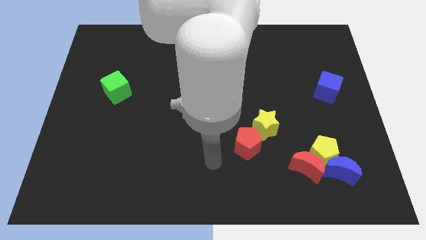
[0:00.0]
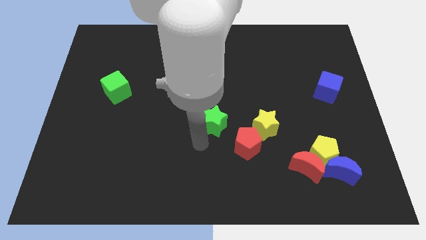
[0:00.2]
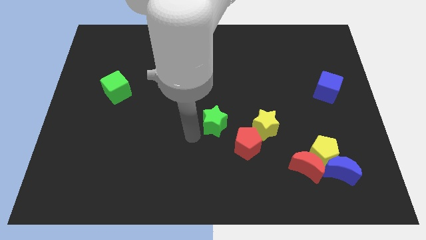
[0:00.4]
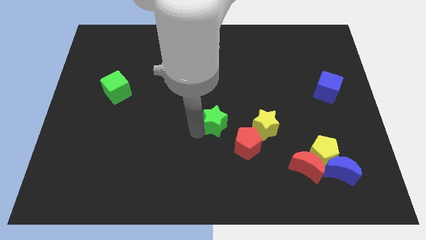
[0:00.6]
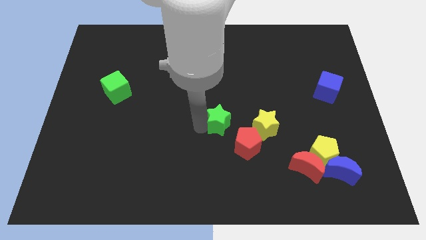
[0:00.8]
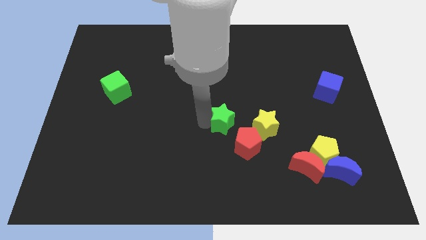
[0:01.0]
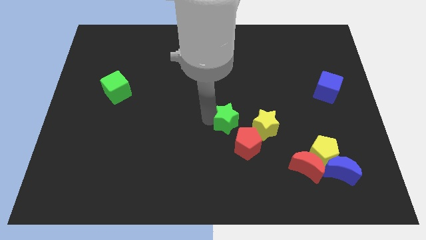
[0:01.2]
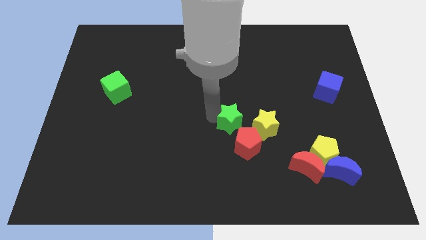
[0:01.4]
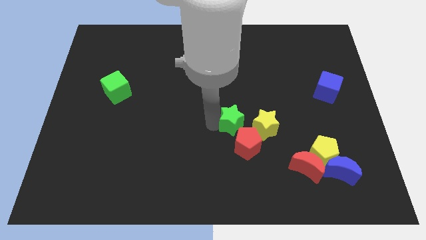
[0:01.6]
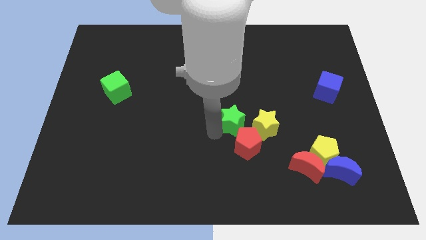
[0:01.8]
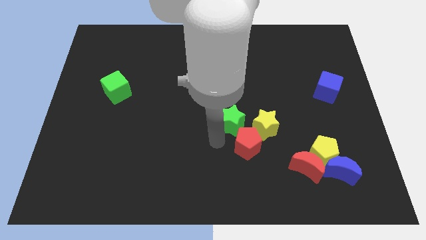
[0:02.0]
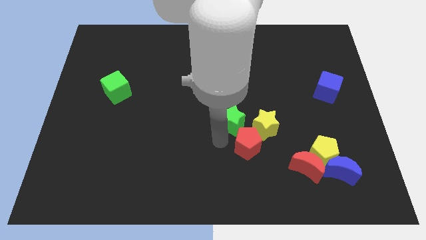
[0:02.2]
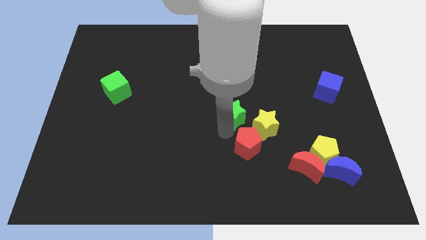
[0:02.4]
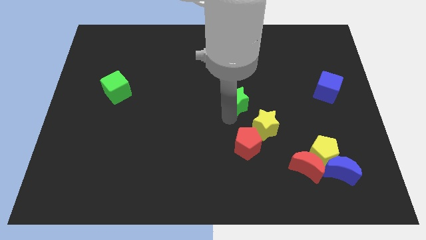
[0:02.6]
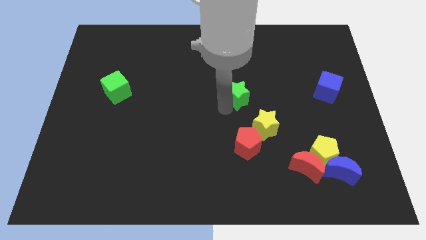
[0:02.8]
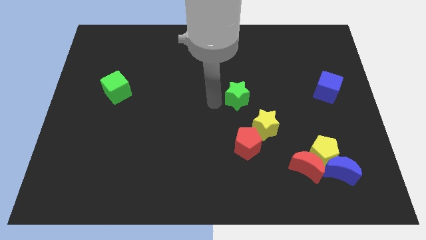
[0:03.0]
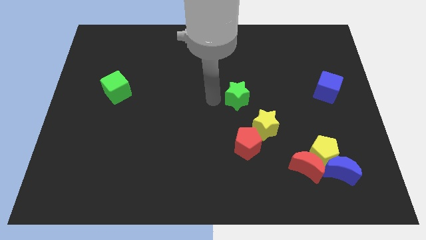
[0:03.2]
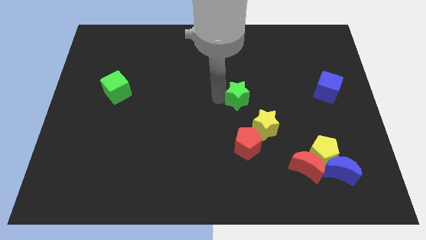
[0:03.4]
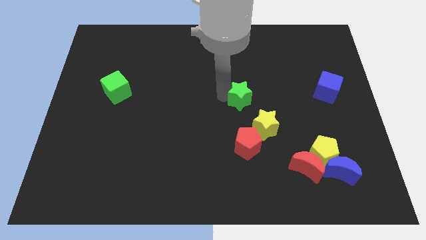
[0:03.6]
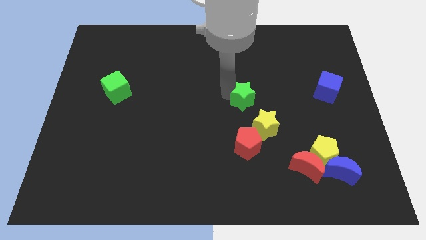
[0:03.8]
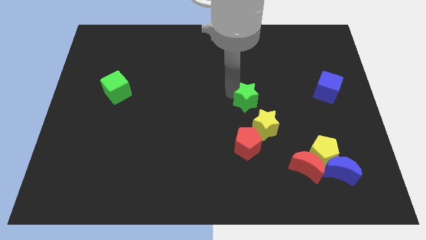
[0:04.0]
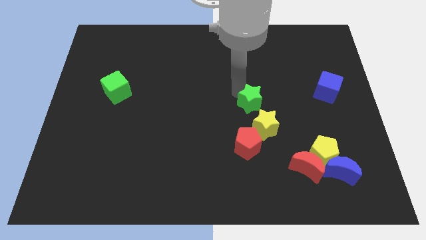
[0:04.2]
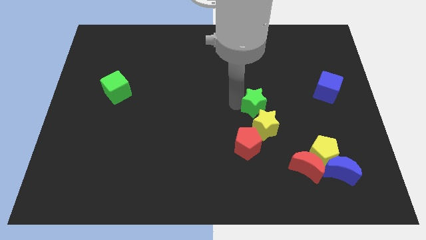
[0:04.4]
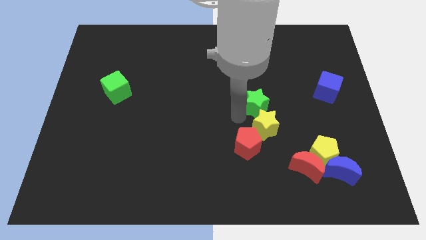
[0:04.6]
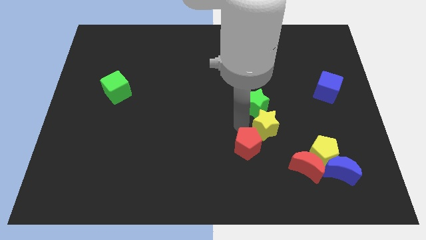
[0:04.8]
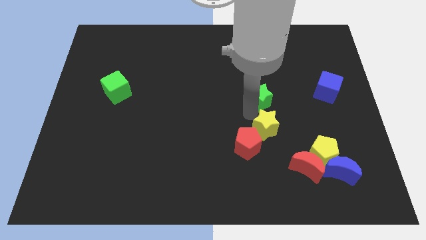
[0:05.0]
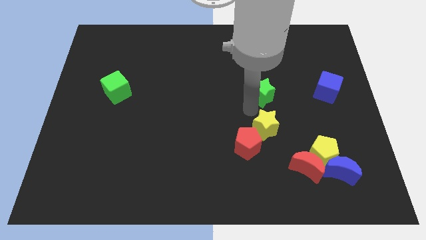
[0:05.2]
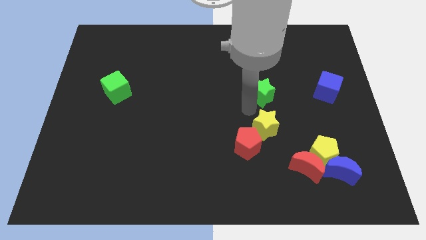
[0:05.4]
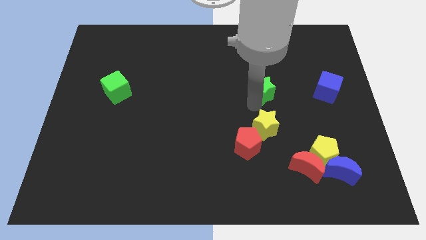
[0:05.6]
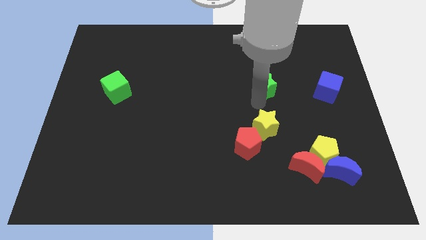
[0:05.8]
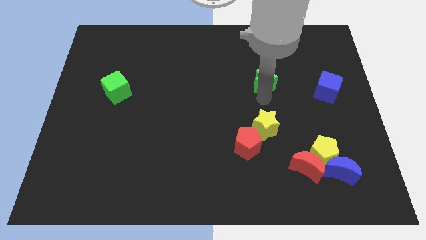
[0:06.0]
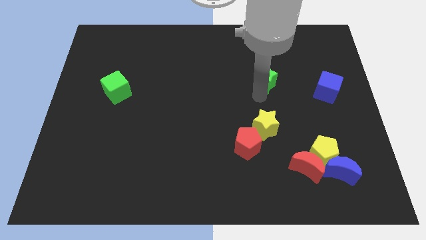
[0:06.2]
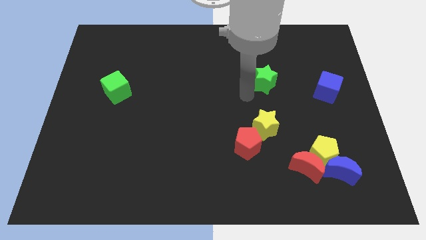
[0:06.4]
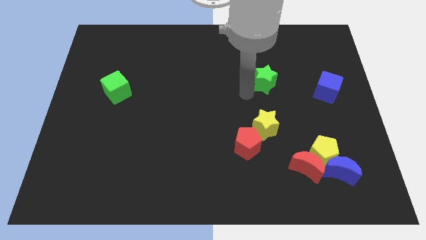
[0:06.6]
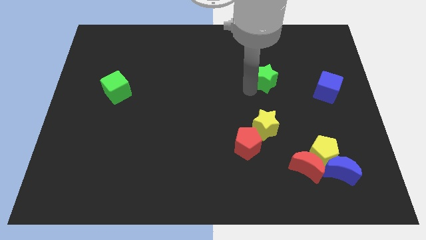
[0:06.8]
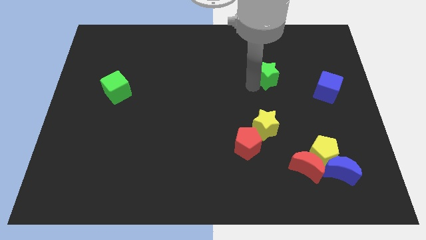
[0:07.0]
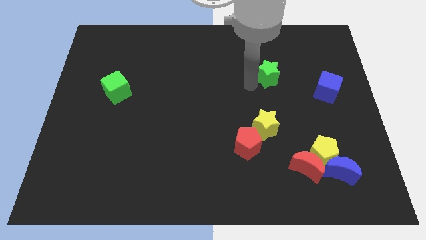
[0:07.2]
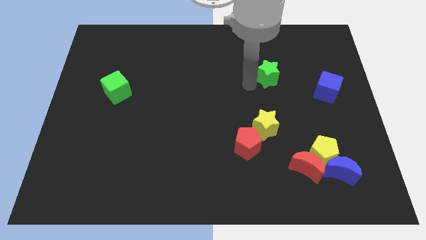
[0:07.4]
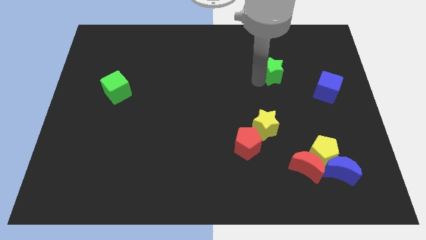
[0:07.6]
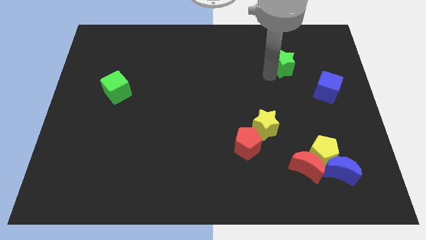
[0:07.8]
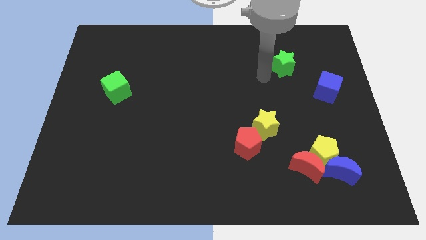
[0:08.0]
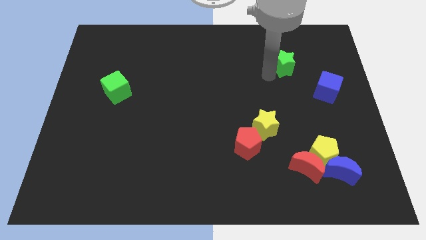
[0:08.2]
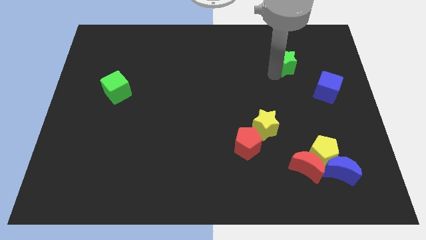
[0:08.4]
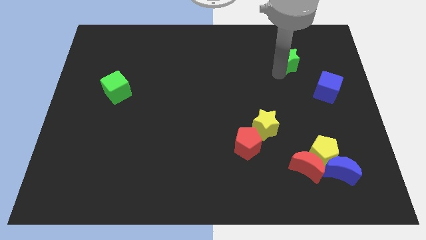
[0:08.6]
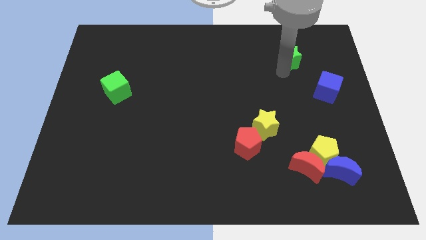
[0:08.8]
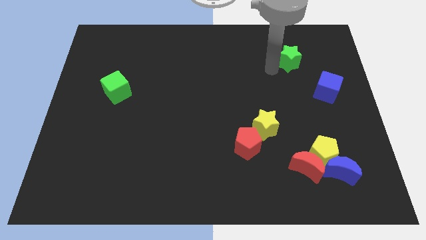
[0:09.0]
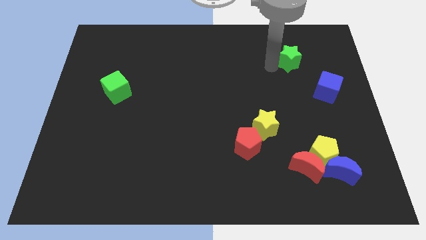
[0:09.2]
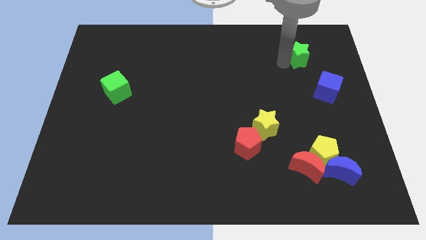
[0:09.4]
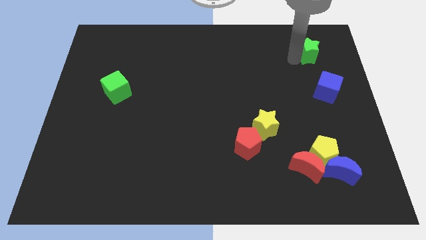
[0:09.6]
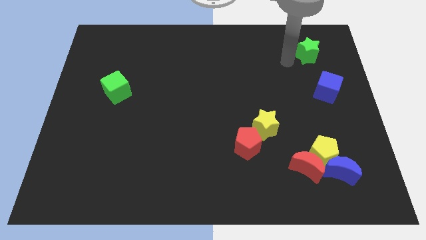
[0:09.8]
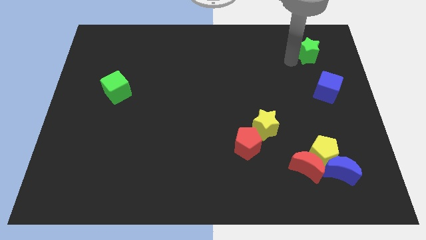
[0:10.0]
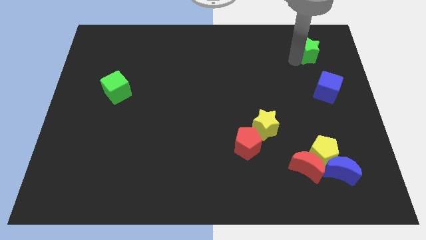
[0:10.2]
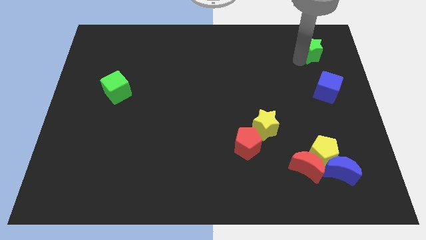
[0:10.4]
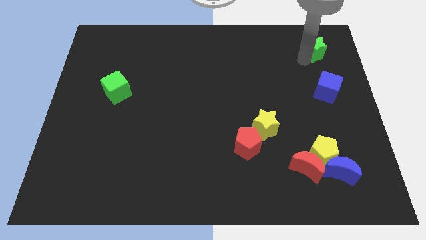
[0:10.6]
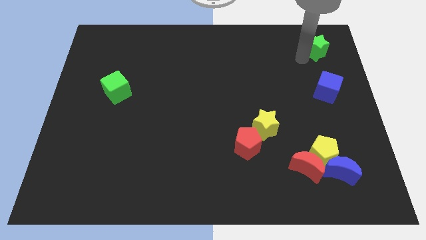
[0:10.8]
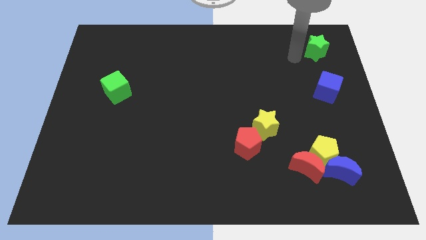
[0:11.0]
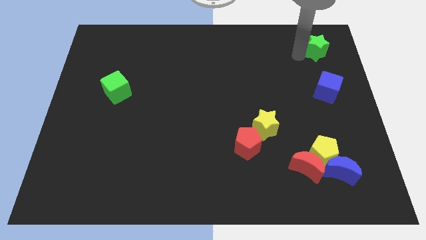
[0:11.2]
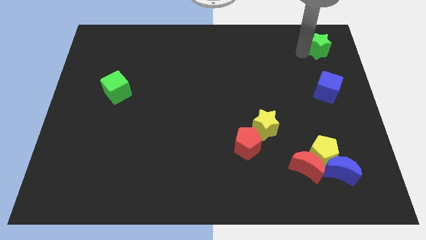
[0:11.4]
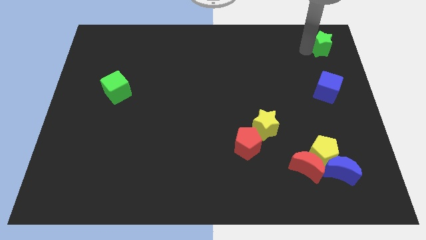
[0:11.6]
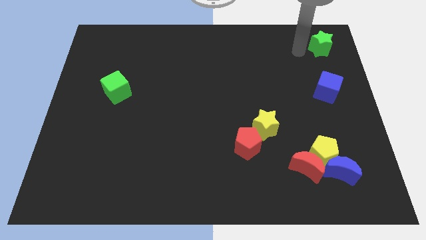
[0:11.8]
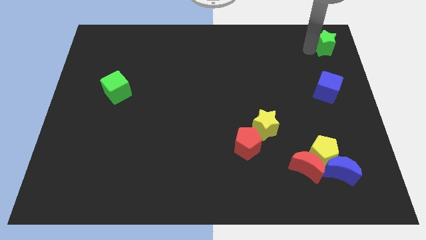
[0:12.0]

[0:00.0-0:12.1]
push the green star to the upper right corner
